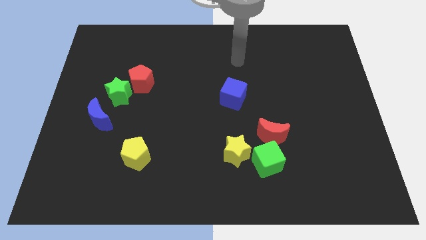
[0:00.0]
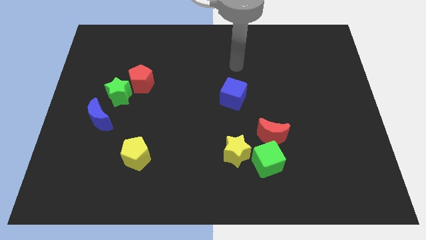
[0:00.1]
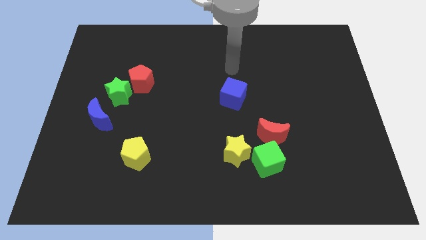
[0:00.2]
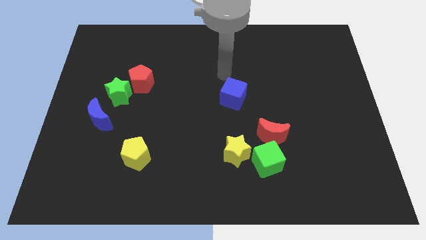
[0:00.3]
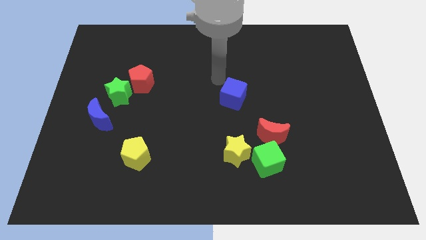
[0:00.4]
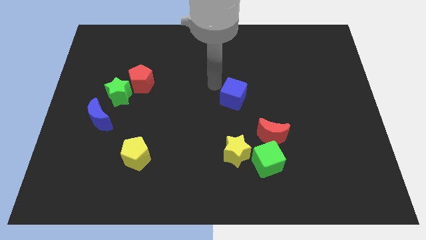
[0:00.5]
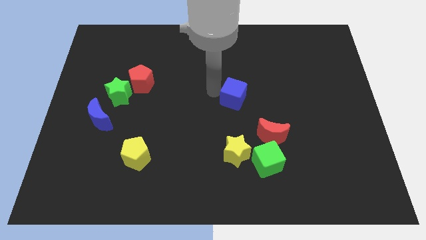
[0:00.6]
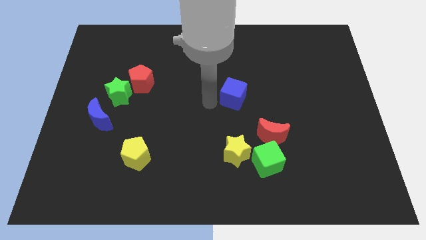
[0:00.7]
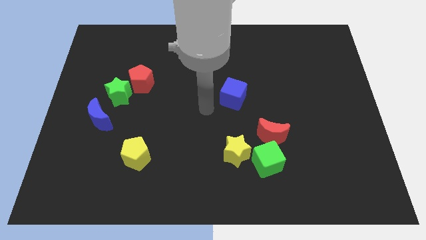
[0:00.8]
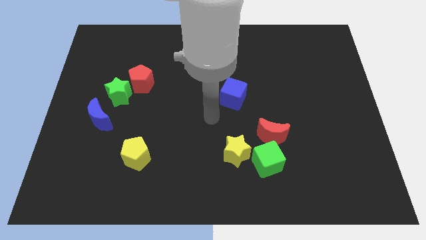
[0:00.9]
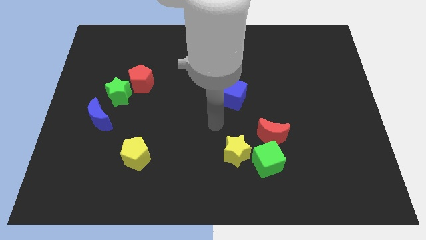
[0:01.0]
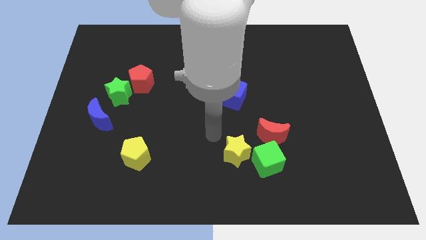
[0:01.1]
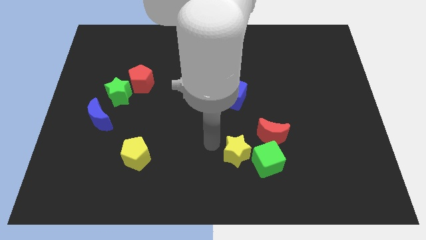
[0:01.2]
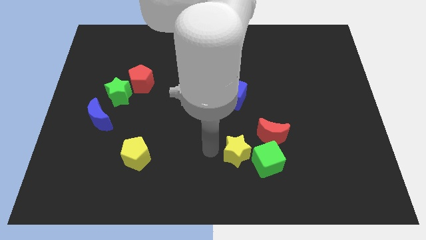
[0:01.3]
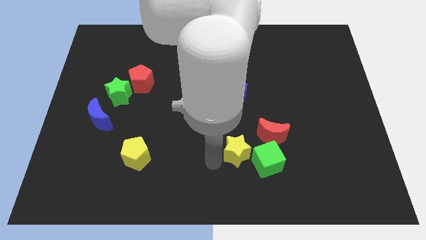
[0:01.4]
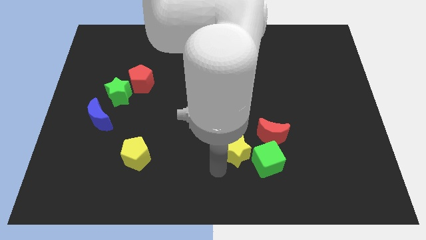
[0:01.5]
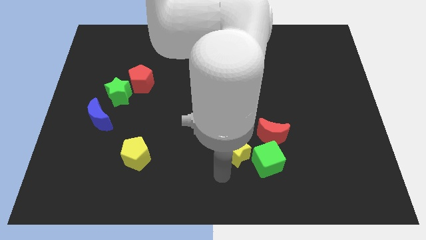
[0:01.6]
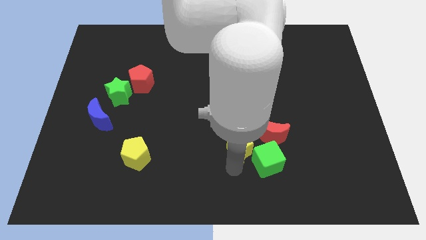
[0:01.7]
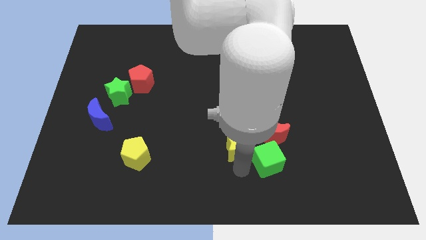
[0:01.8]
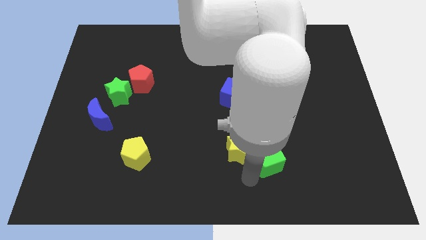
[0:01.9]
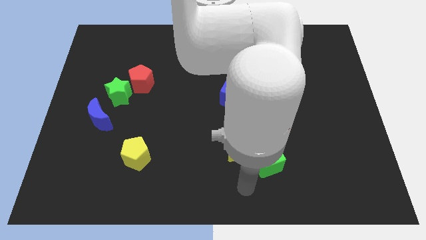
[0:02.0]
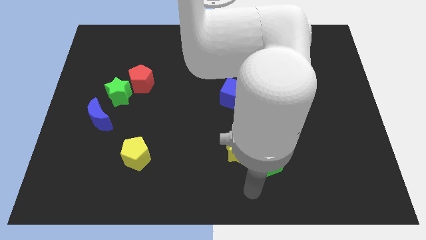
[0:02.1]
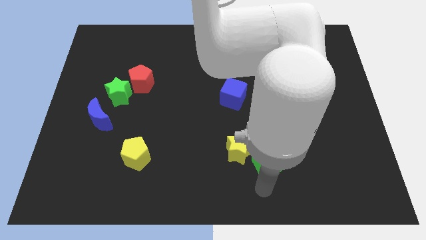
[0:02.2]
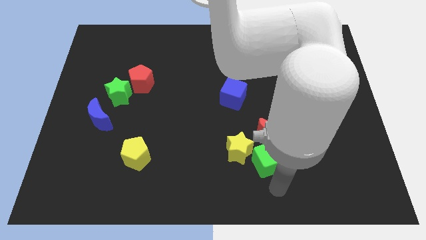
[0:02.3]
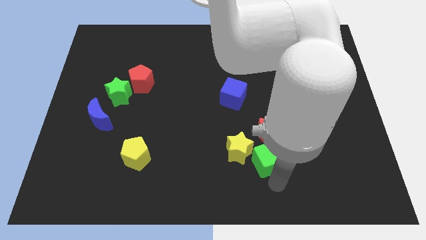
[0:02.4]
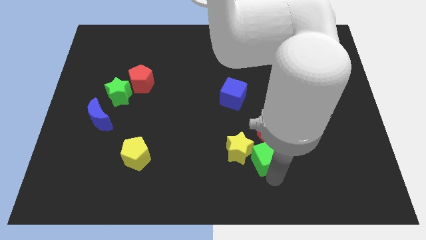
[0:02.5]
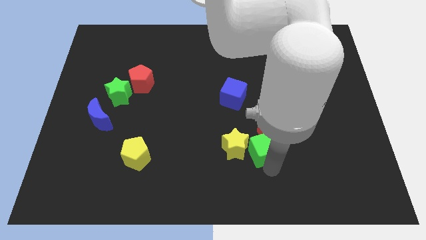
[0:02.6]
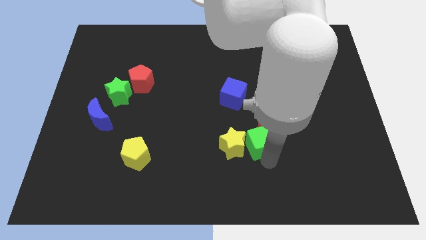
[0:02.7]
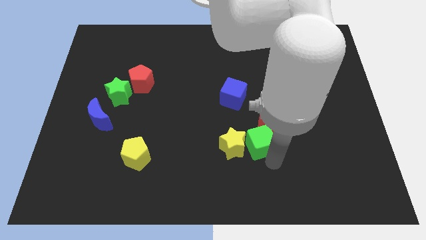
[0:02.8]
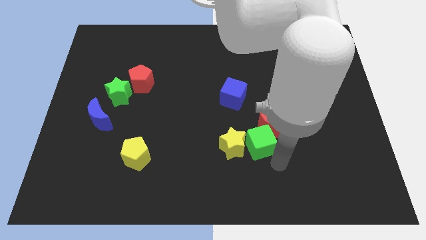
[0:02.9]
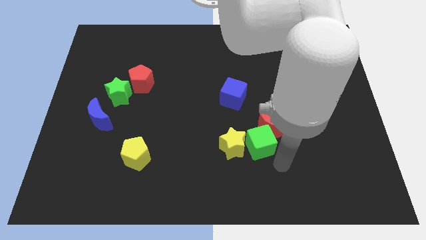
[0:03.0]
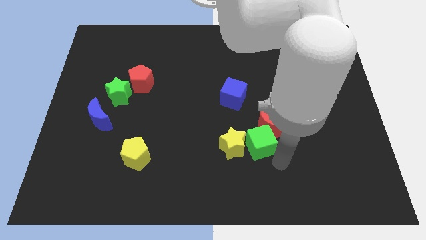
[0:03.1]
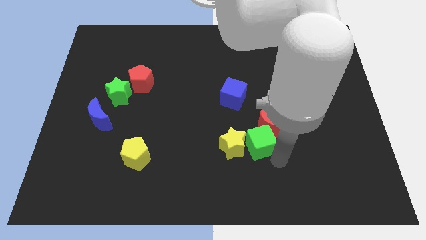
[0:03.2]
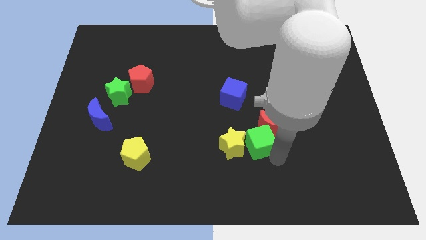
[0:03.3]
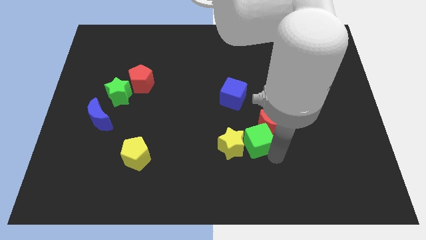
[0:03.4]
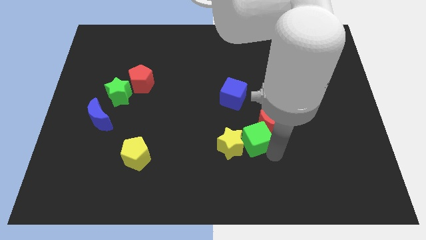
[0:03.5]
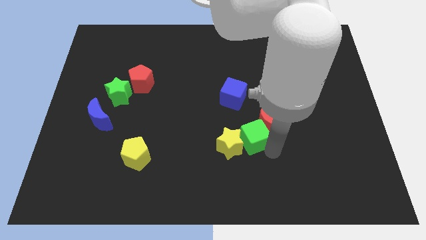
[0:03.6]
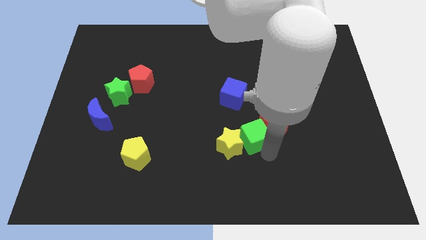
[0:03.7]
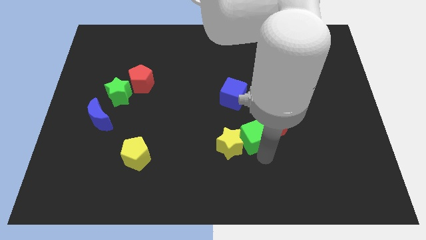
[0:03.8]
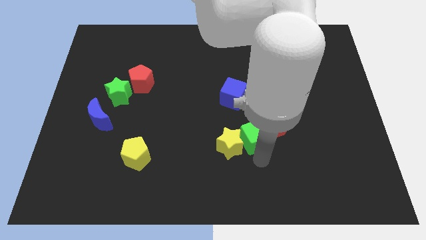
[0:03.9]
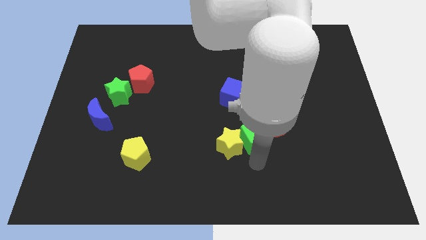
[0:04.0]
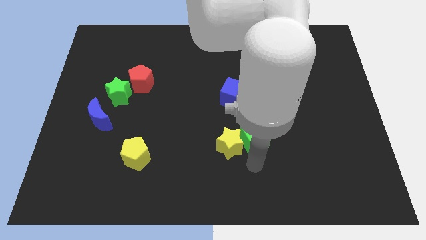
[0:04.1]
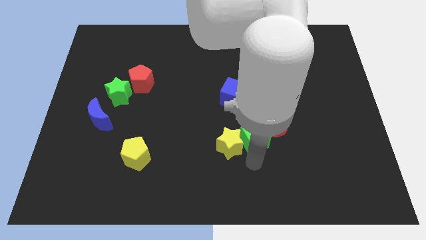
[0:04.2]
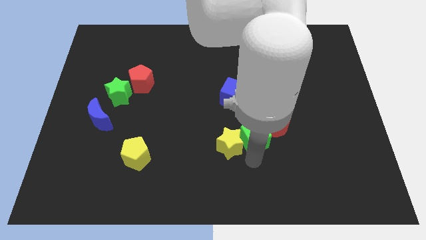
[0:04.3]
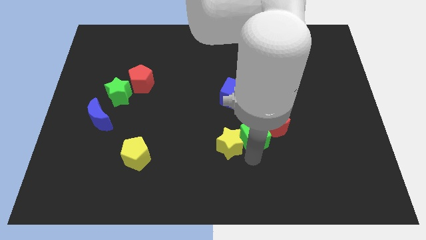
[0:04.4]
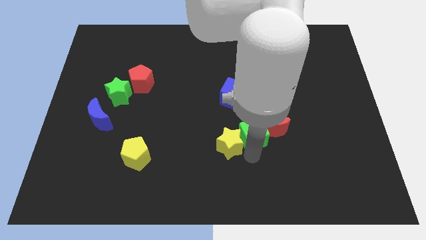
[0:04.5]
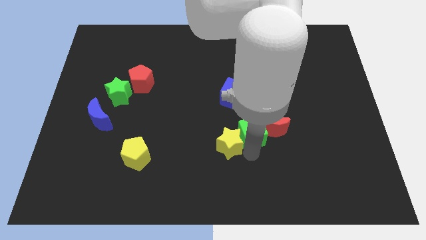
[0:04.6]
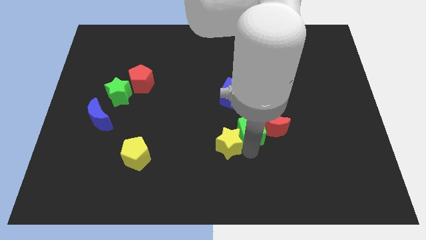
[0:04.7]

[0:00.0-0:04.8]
slide the green cube a bit up

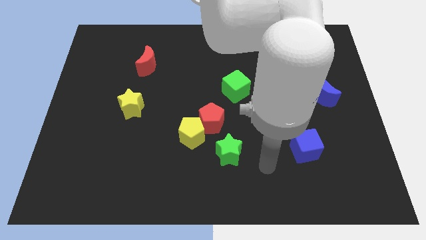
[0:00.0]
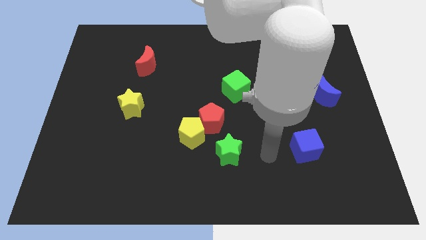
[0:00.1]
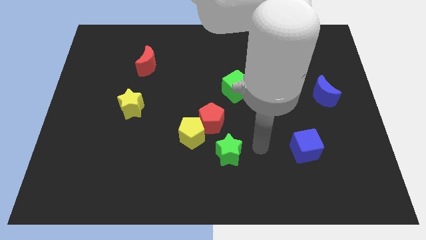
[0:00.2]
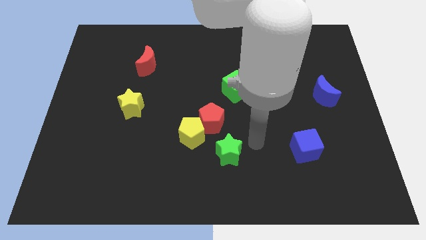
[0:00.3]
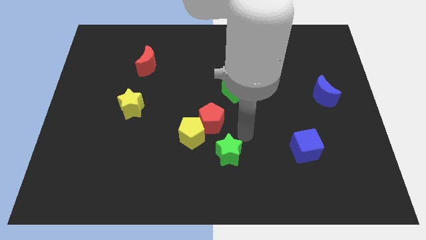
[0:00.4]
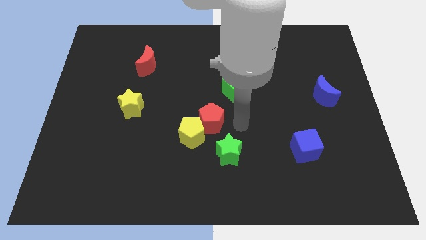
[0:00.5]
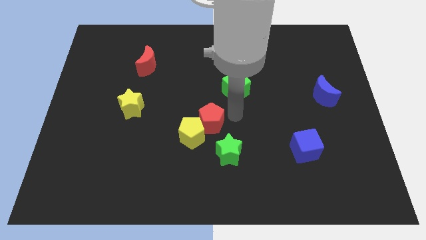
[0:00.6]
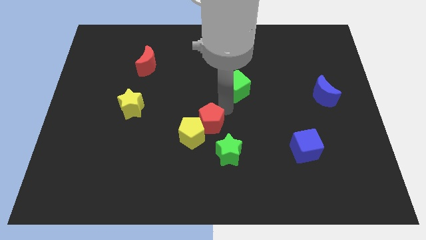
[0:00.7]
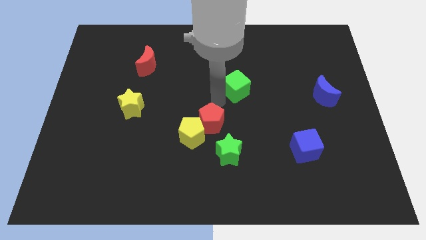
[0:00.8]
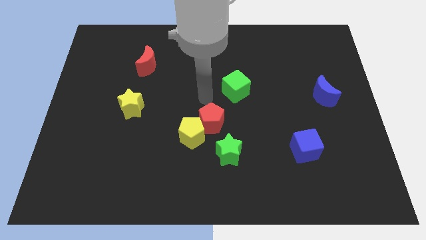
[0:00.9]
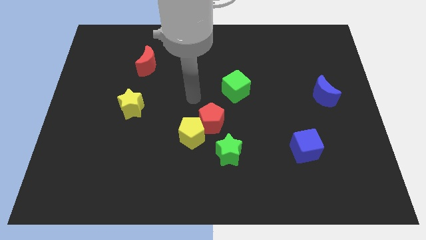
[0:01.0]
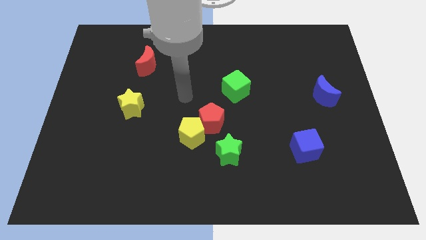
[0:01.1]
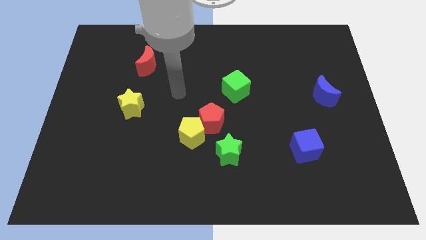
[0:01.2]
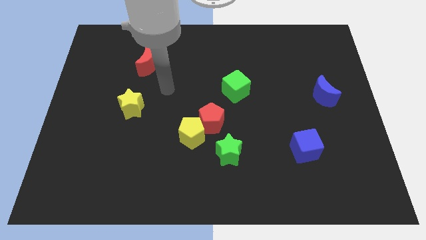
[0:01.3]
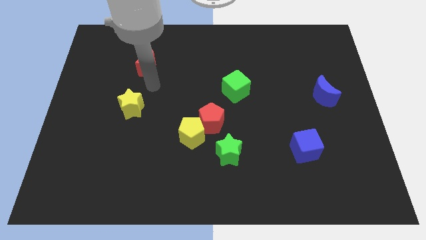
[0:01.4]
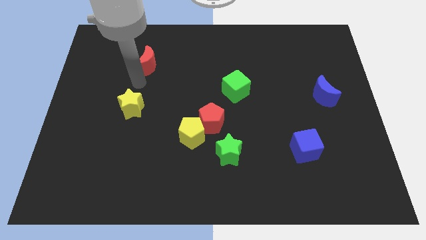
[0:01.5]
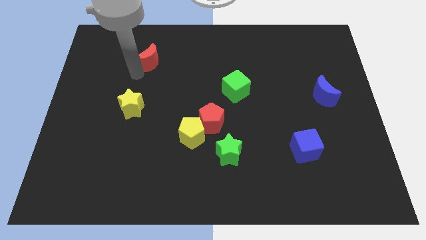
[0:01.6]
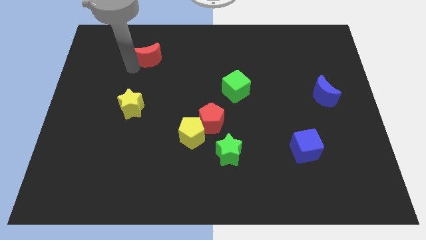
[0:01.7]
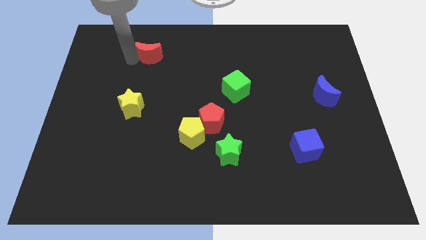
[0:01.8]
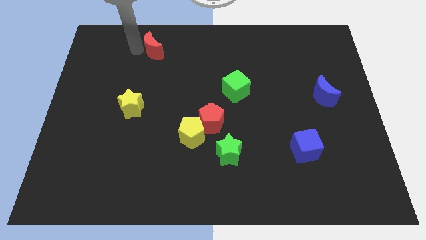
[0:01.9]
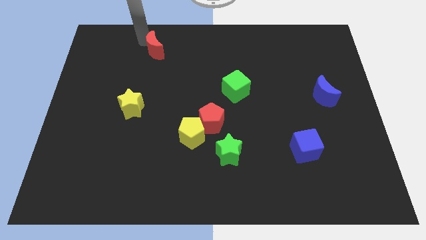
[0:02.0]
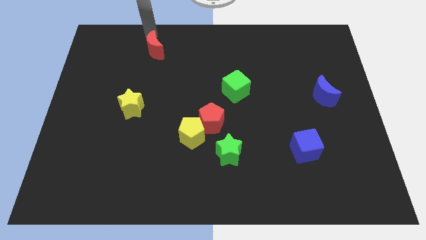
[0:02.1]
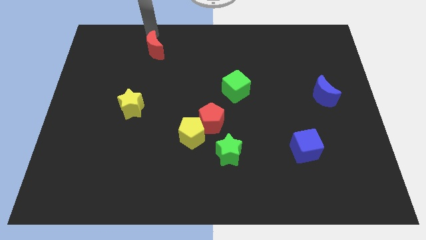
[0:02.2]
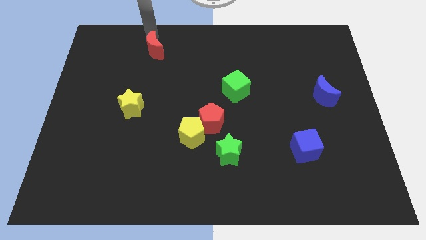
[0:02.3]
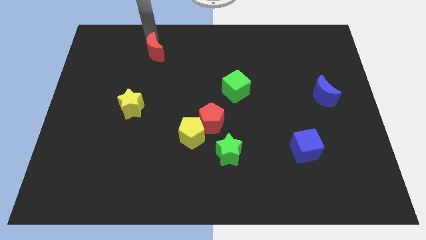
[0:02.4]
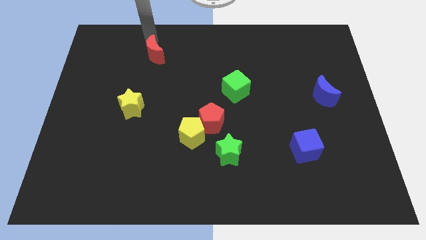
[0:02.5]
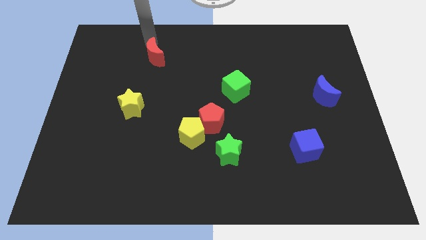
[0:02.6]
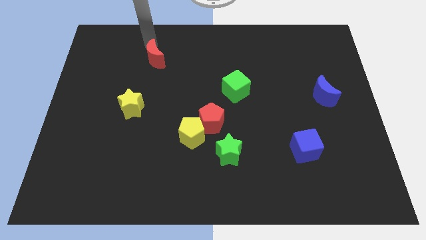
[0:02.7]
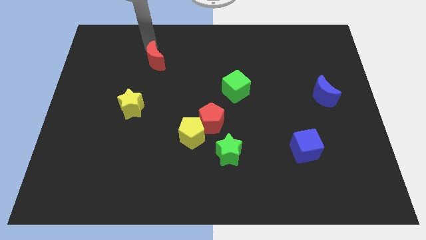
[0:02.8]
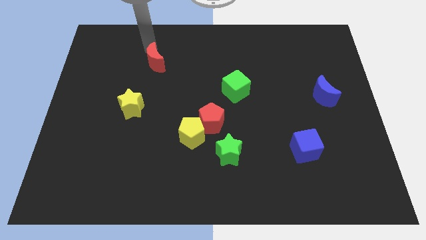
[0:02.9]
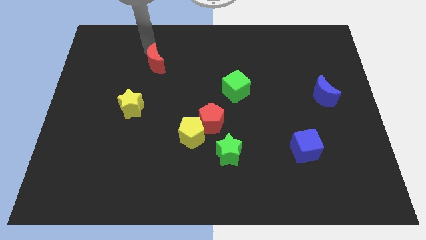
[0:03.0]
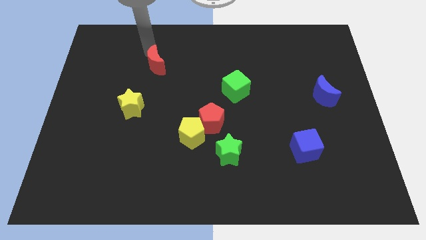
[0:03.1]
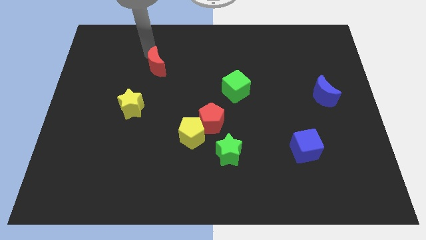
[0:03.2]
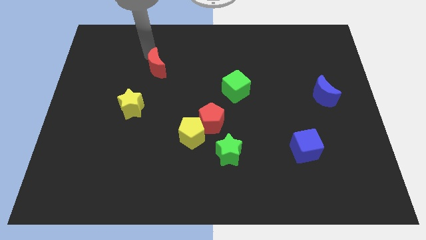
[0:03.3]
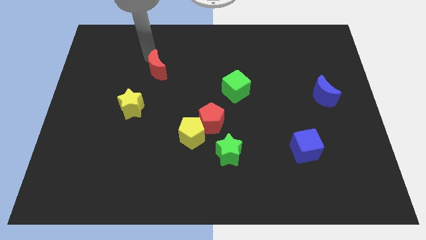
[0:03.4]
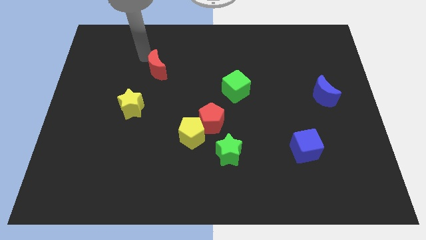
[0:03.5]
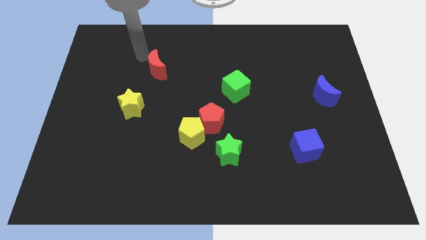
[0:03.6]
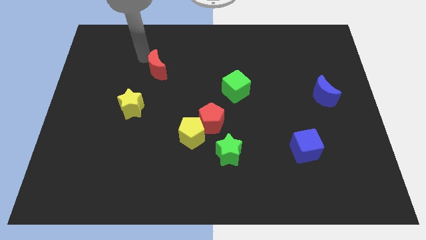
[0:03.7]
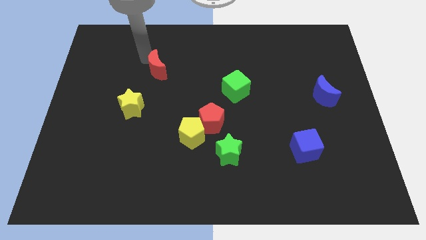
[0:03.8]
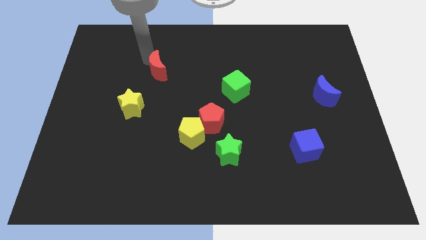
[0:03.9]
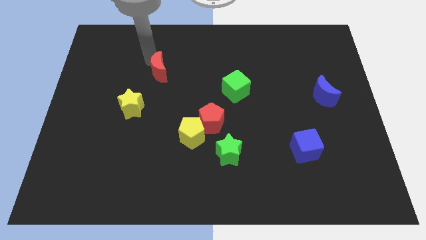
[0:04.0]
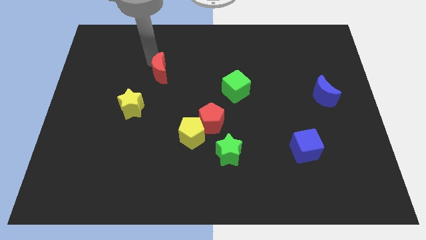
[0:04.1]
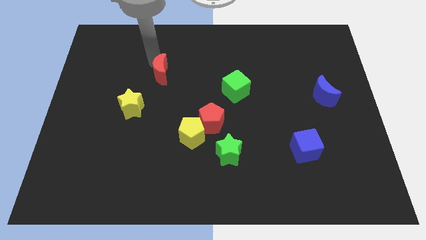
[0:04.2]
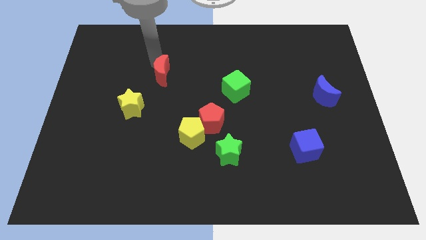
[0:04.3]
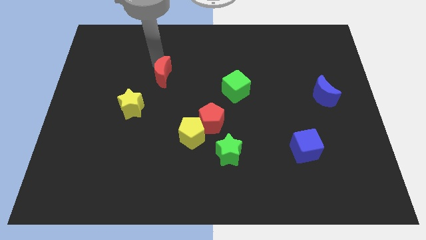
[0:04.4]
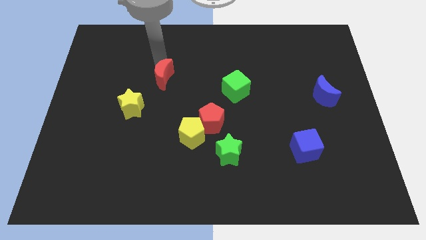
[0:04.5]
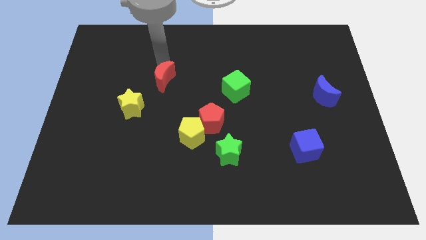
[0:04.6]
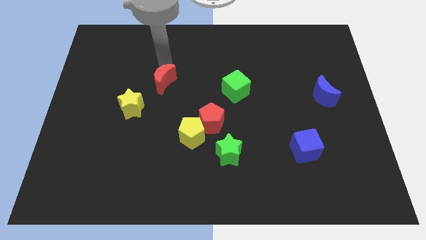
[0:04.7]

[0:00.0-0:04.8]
slightly move the red moon down and right
